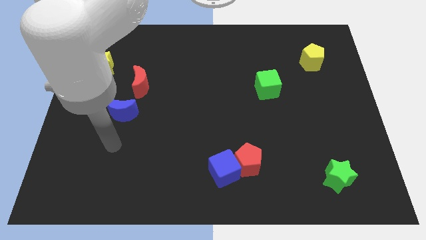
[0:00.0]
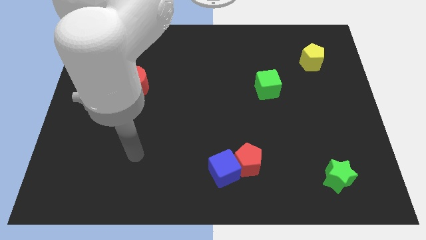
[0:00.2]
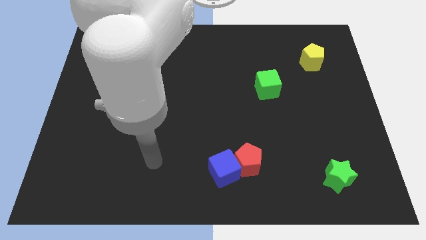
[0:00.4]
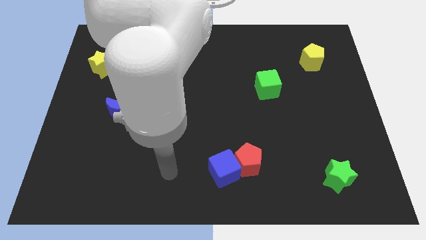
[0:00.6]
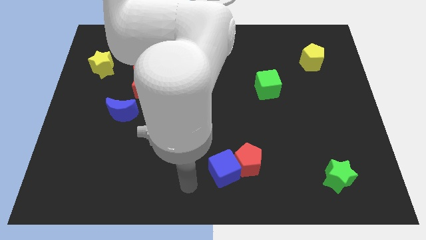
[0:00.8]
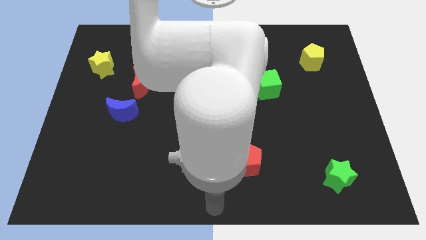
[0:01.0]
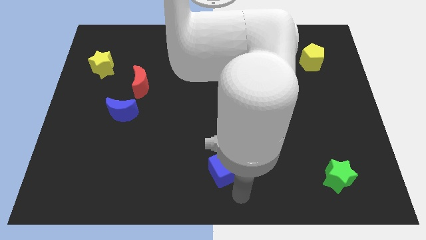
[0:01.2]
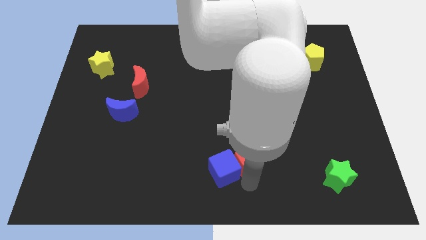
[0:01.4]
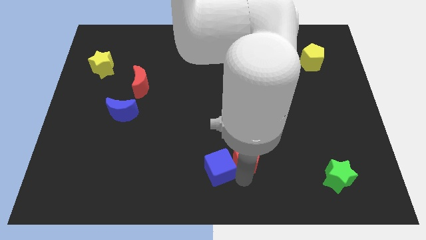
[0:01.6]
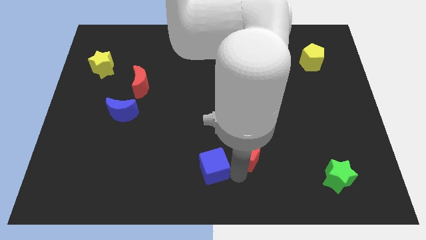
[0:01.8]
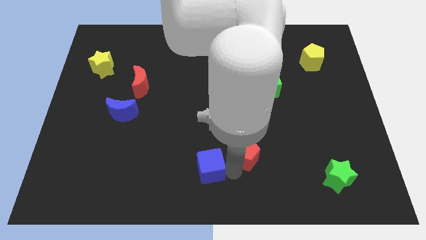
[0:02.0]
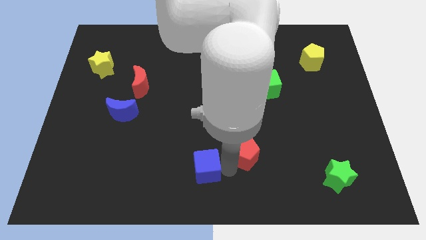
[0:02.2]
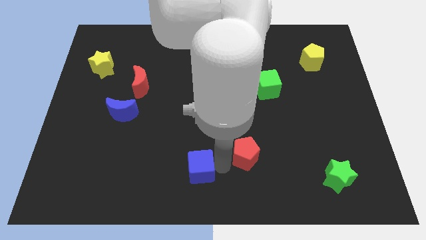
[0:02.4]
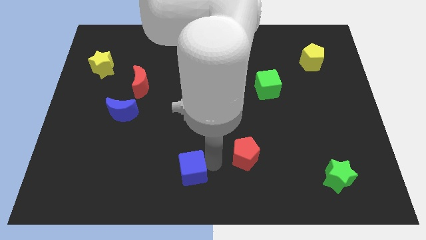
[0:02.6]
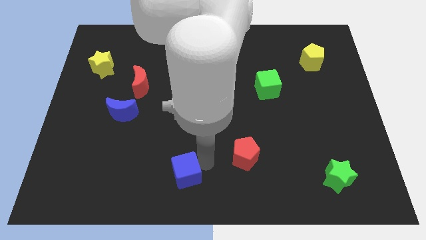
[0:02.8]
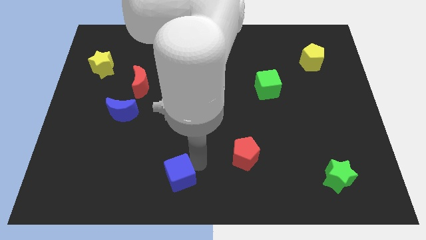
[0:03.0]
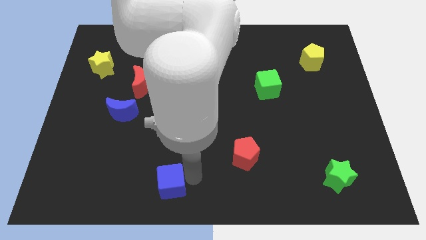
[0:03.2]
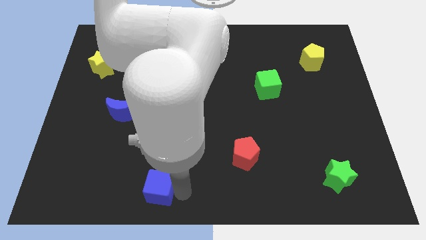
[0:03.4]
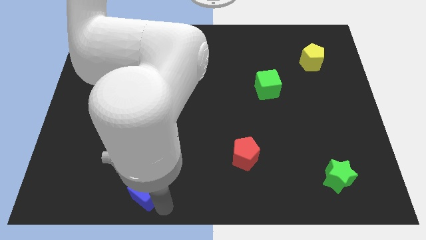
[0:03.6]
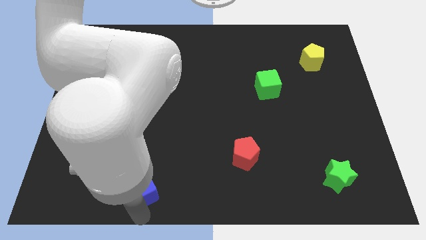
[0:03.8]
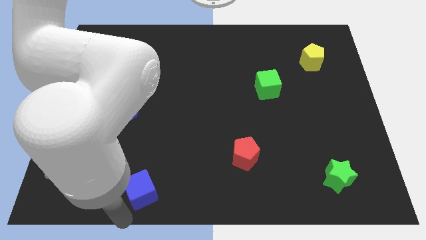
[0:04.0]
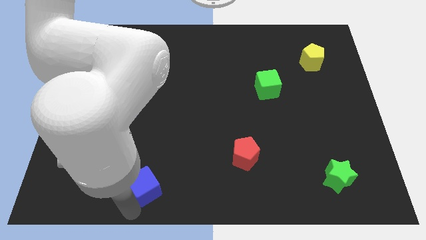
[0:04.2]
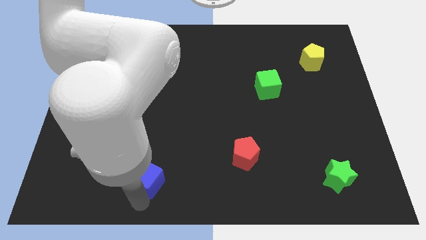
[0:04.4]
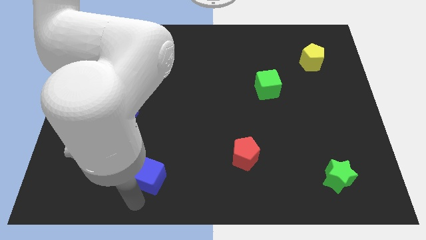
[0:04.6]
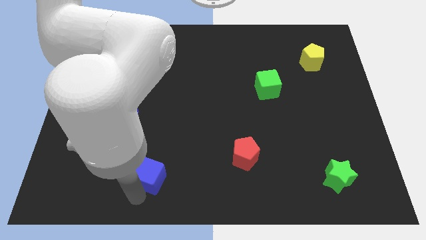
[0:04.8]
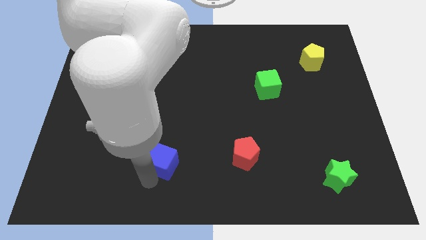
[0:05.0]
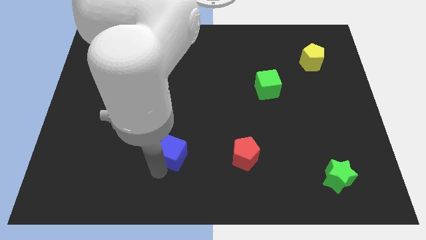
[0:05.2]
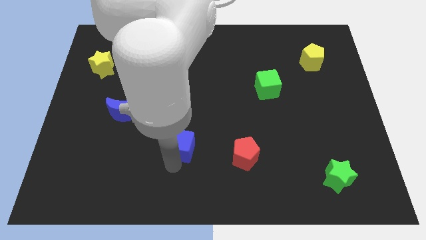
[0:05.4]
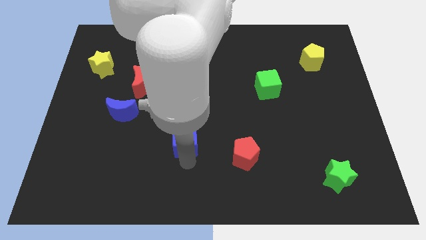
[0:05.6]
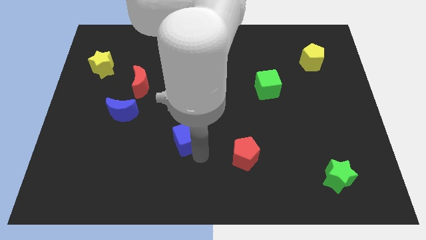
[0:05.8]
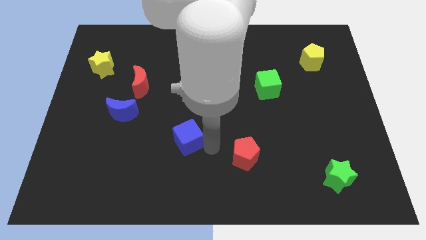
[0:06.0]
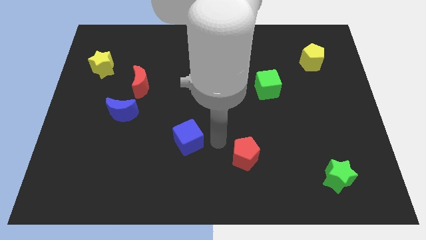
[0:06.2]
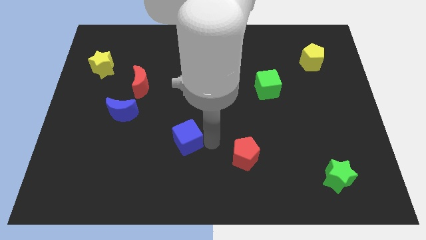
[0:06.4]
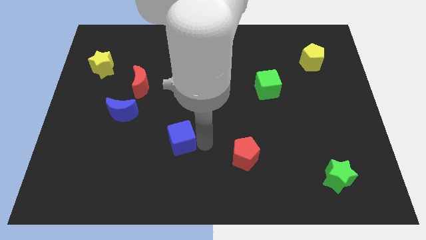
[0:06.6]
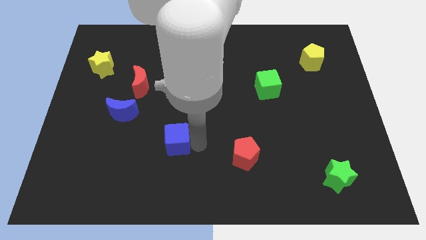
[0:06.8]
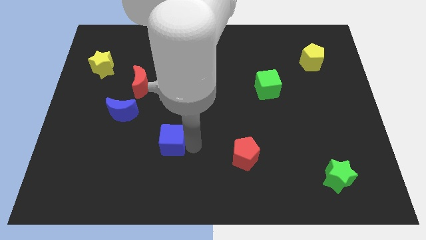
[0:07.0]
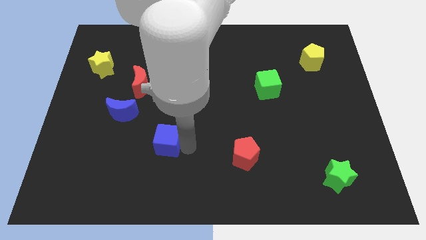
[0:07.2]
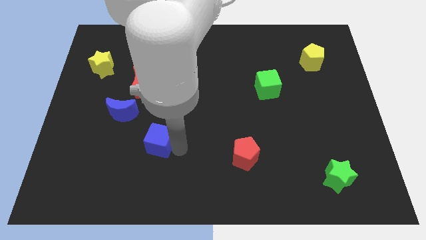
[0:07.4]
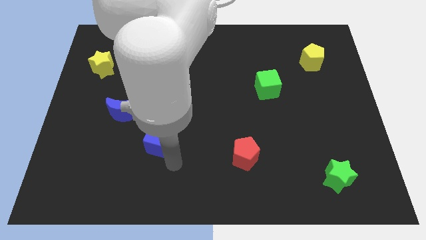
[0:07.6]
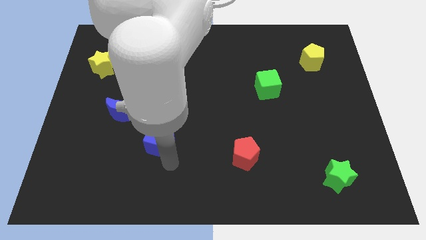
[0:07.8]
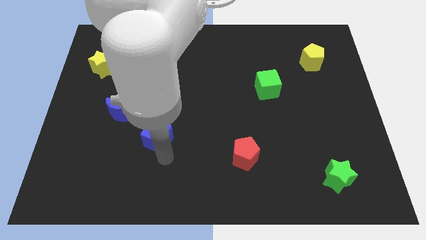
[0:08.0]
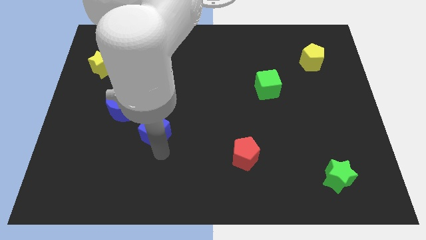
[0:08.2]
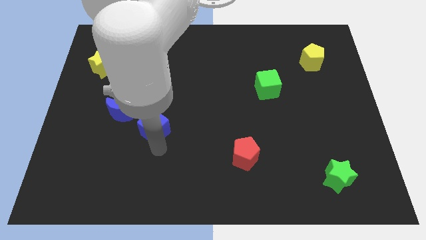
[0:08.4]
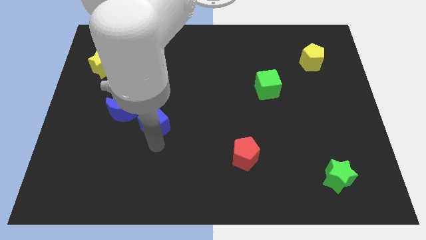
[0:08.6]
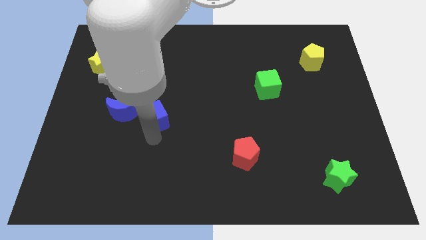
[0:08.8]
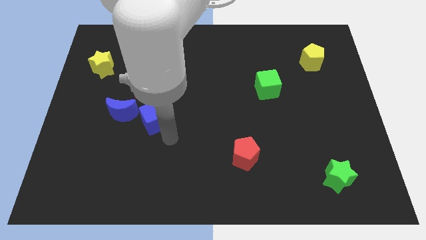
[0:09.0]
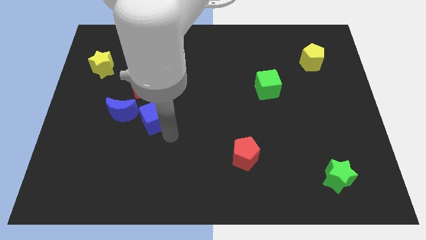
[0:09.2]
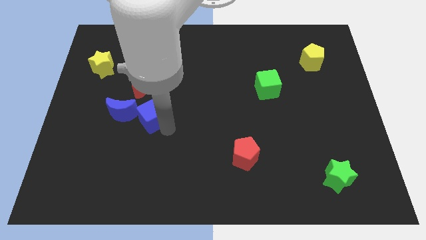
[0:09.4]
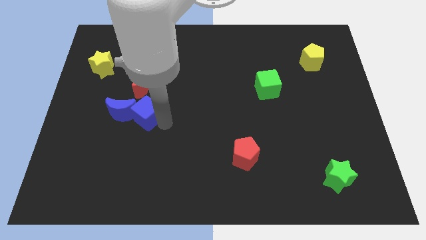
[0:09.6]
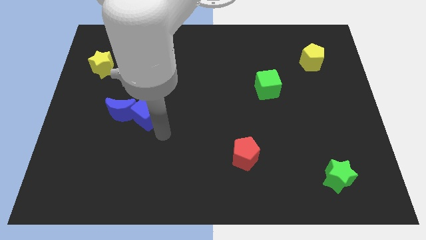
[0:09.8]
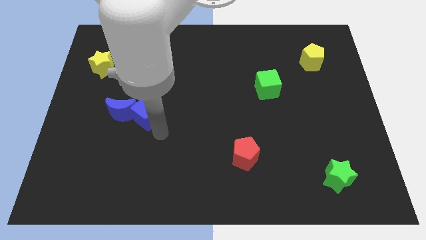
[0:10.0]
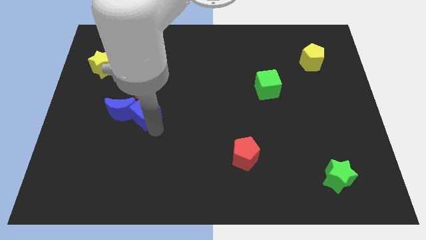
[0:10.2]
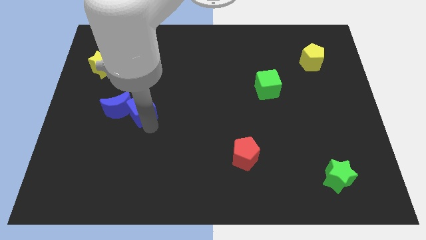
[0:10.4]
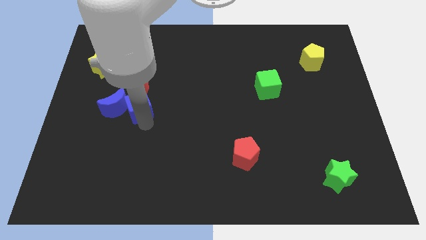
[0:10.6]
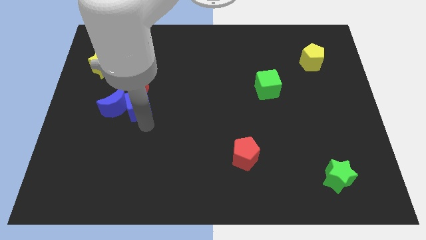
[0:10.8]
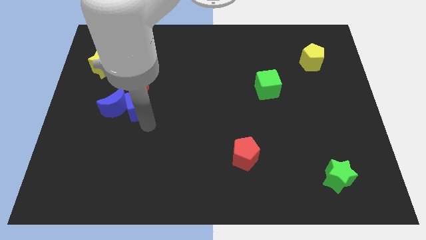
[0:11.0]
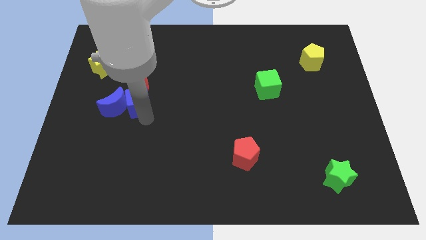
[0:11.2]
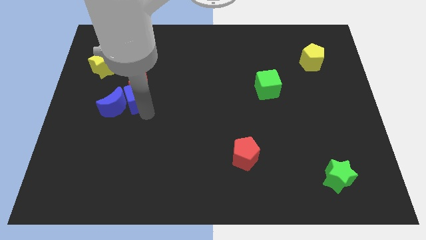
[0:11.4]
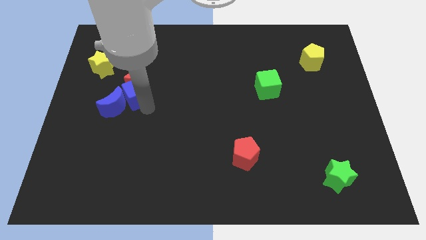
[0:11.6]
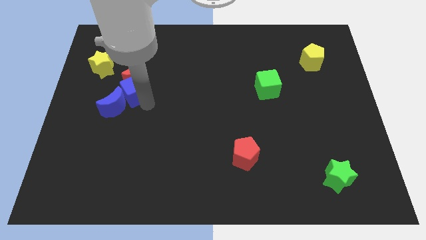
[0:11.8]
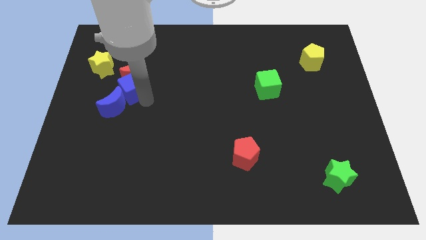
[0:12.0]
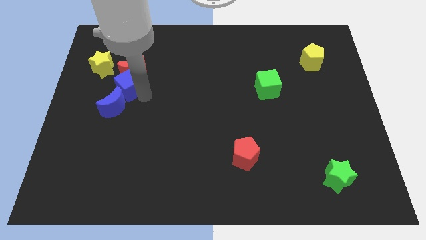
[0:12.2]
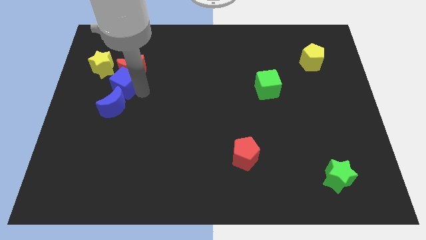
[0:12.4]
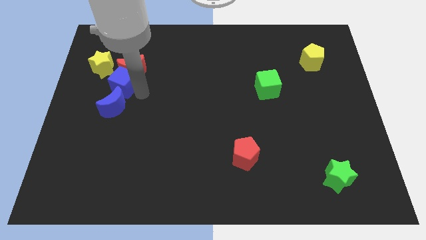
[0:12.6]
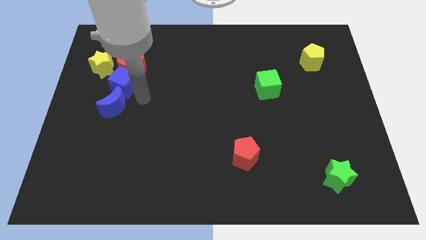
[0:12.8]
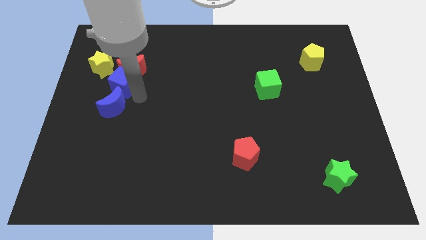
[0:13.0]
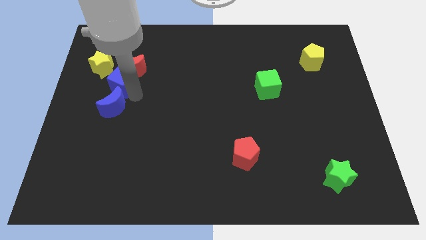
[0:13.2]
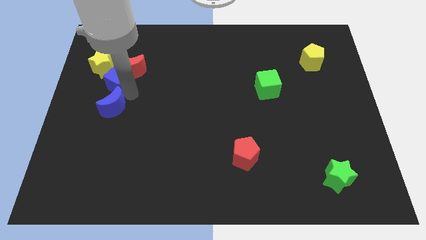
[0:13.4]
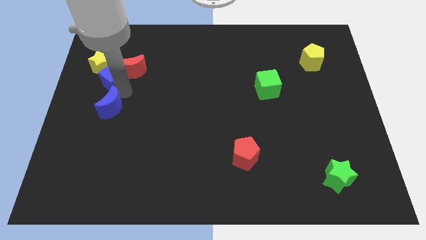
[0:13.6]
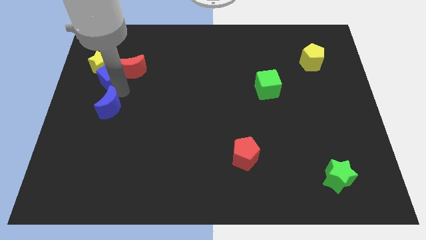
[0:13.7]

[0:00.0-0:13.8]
move the blue cube next to the yellow star
